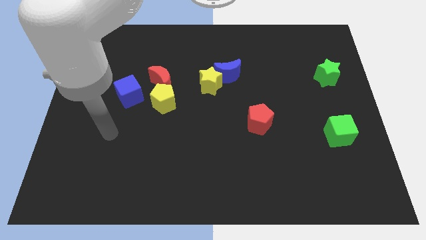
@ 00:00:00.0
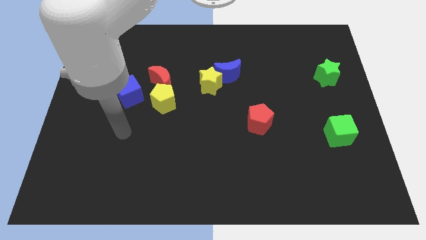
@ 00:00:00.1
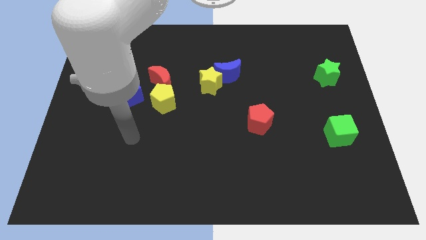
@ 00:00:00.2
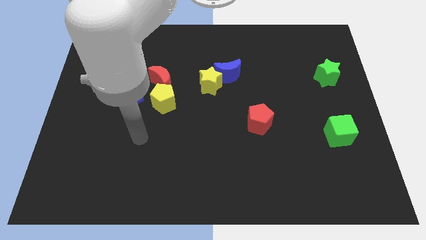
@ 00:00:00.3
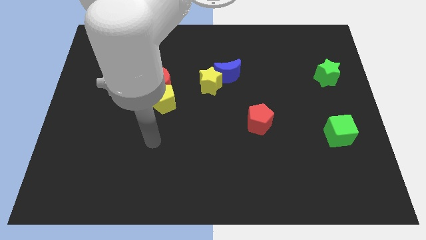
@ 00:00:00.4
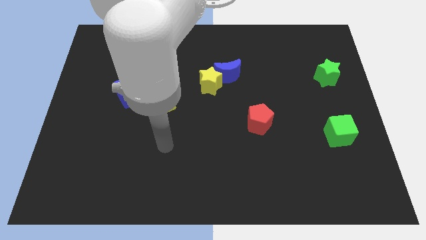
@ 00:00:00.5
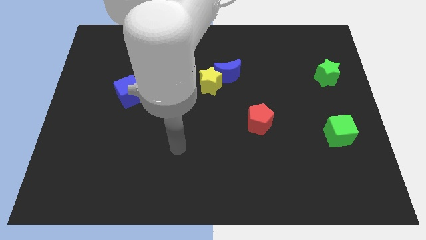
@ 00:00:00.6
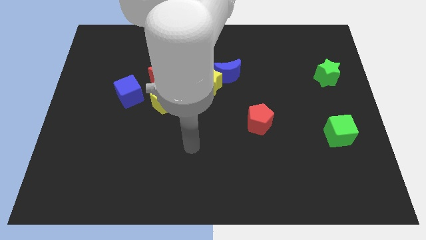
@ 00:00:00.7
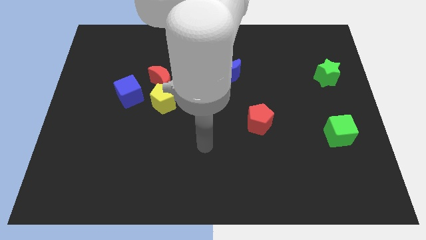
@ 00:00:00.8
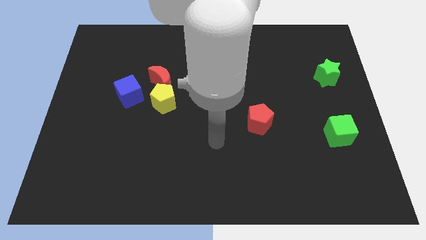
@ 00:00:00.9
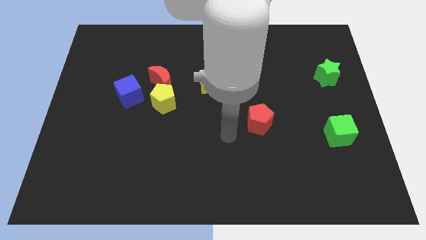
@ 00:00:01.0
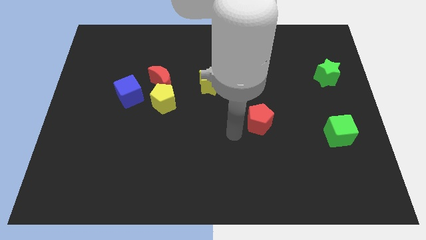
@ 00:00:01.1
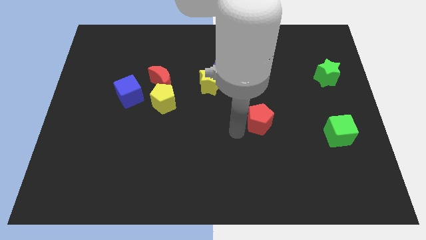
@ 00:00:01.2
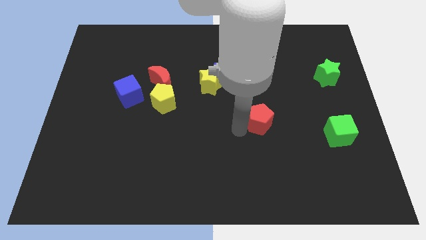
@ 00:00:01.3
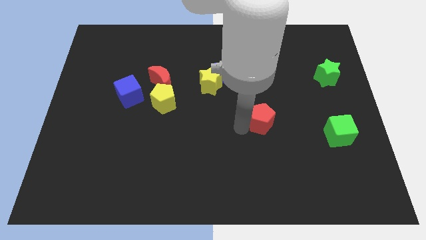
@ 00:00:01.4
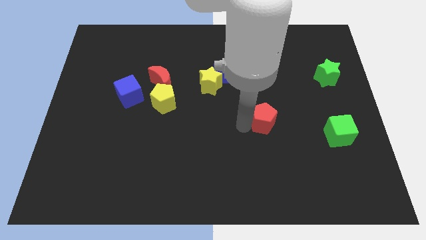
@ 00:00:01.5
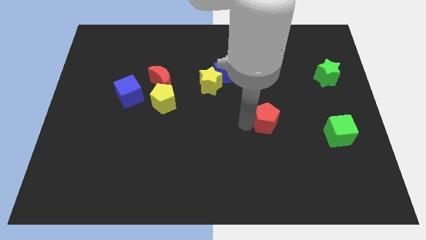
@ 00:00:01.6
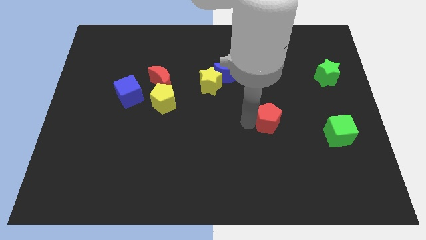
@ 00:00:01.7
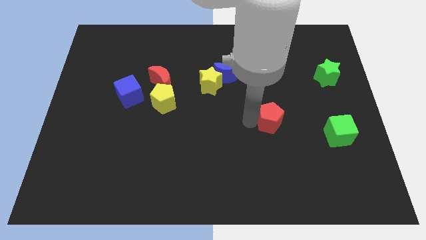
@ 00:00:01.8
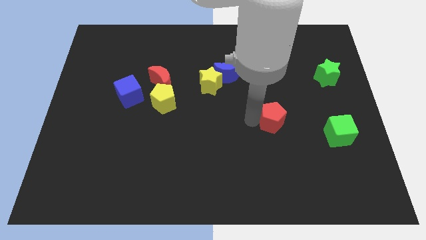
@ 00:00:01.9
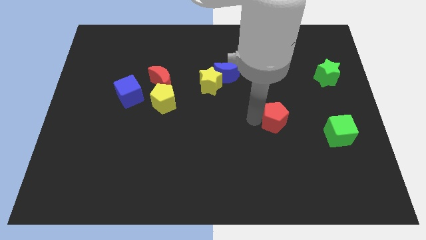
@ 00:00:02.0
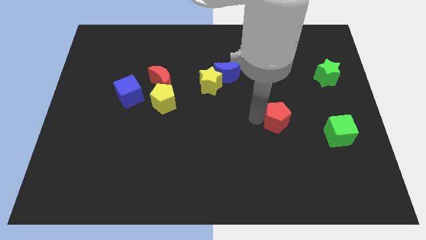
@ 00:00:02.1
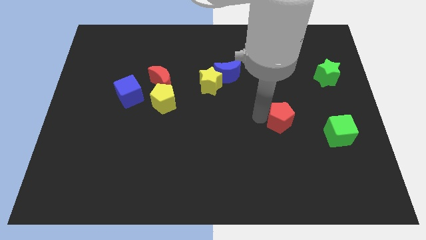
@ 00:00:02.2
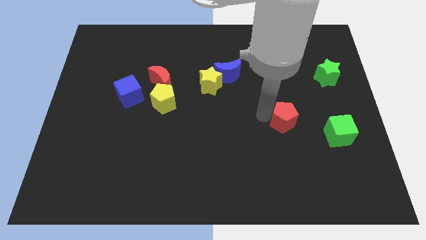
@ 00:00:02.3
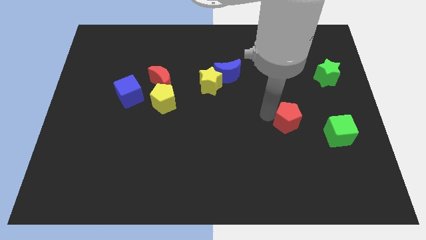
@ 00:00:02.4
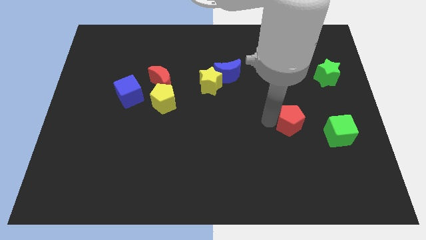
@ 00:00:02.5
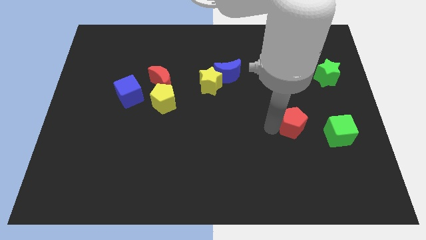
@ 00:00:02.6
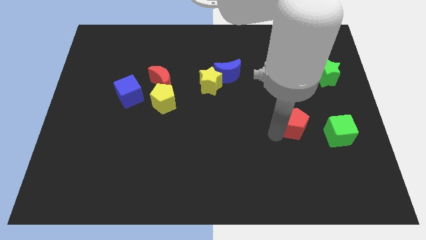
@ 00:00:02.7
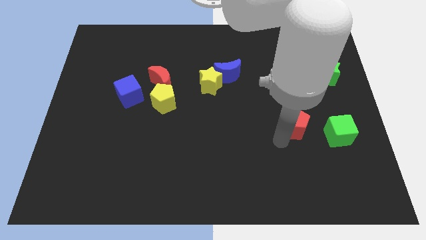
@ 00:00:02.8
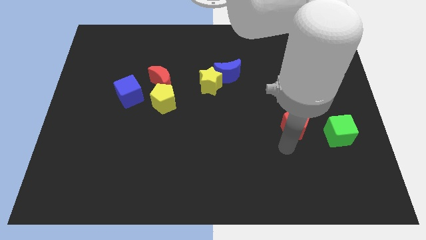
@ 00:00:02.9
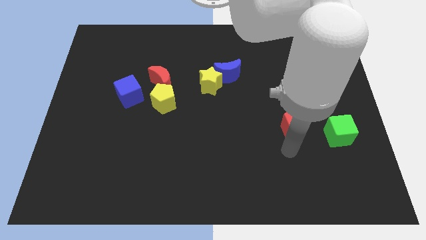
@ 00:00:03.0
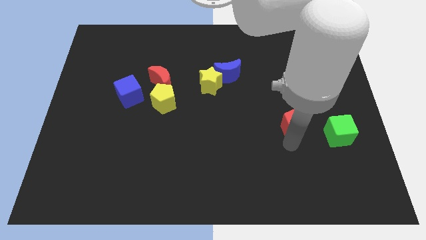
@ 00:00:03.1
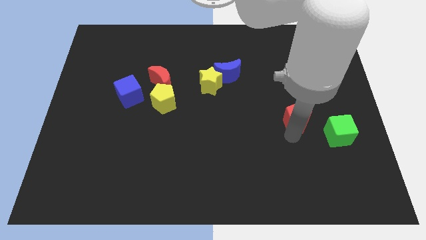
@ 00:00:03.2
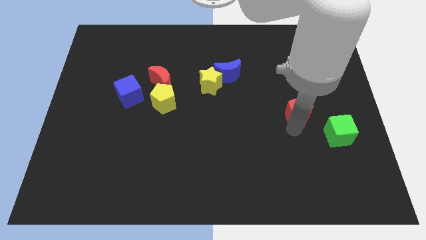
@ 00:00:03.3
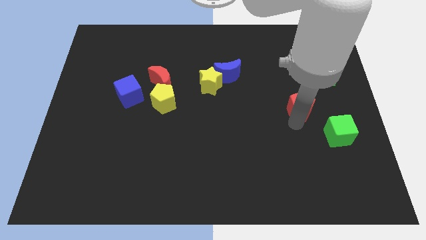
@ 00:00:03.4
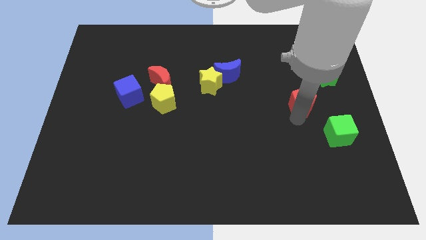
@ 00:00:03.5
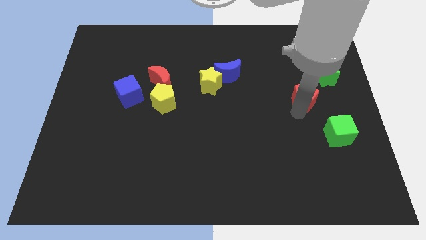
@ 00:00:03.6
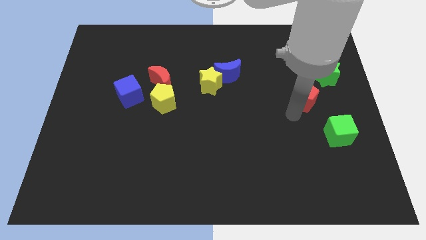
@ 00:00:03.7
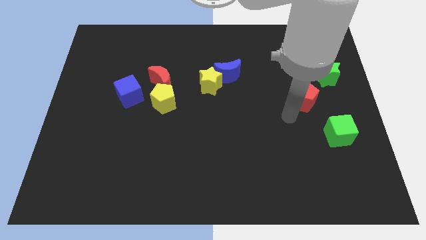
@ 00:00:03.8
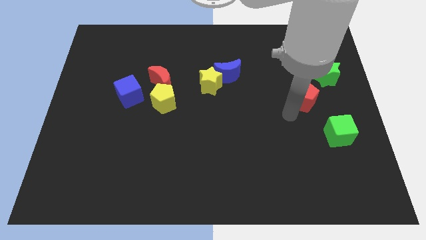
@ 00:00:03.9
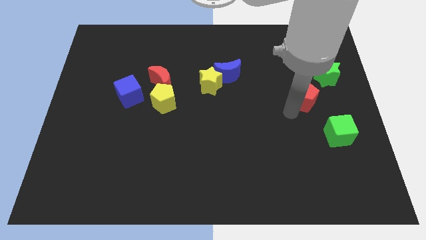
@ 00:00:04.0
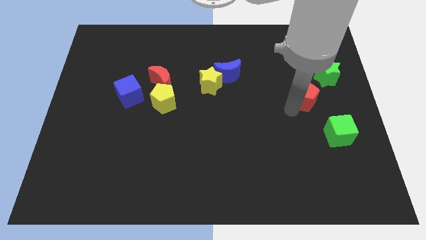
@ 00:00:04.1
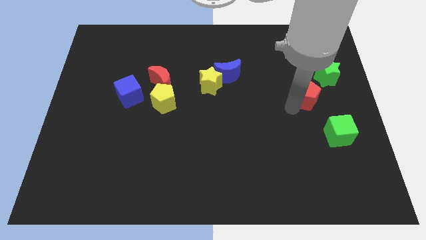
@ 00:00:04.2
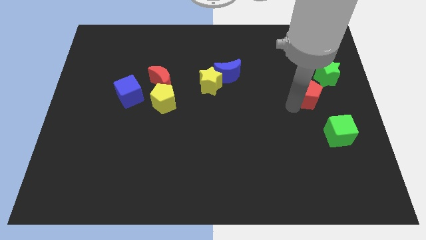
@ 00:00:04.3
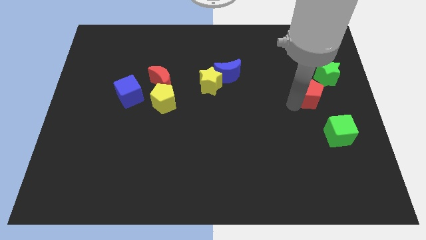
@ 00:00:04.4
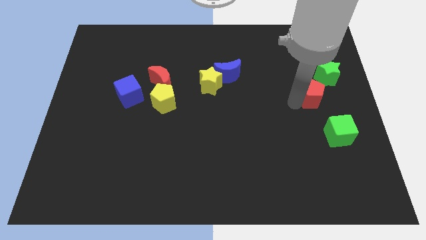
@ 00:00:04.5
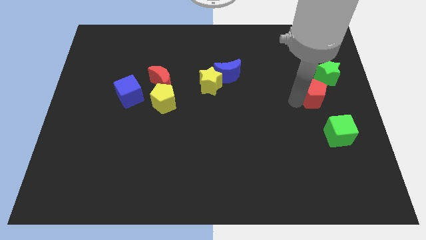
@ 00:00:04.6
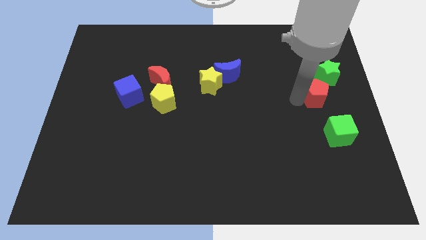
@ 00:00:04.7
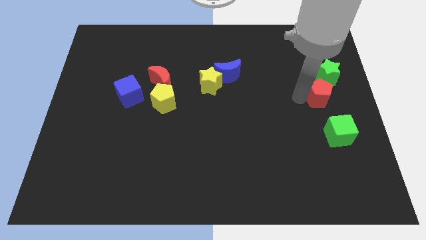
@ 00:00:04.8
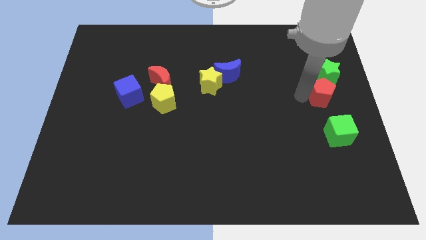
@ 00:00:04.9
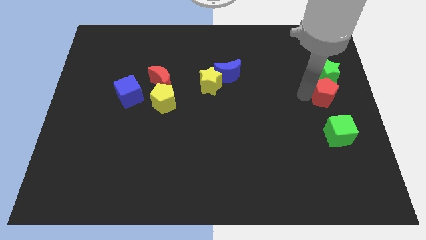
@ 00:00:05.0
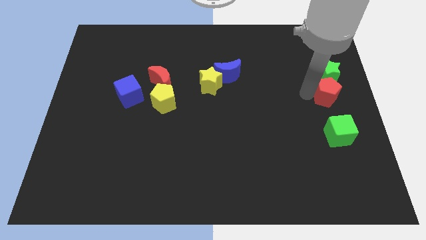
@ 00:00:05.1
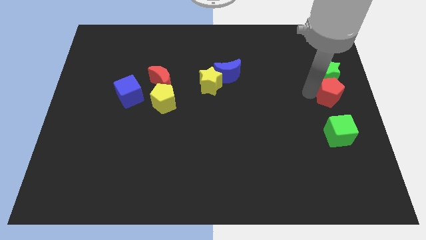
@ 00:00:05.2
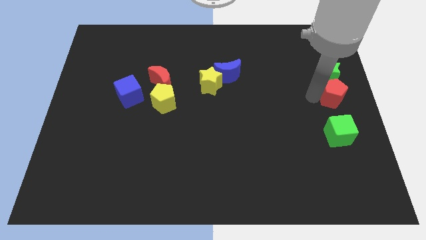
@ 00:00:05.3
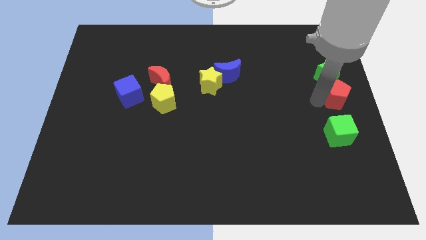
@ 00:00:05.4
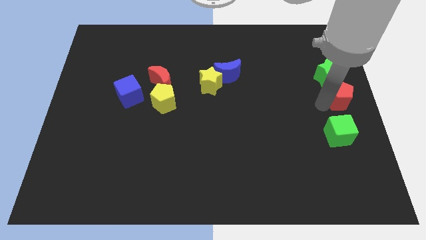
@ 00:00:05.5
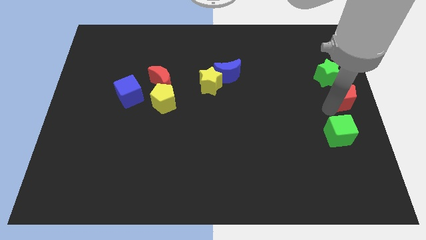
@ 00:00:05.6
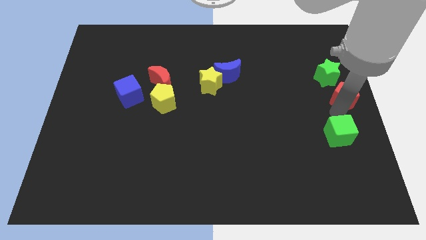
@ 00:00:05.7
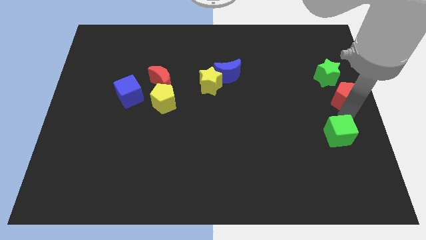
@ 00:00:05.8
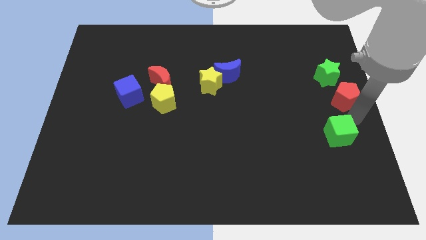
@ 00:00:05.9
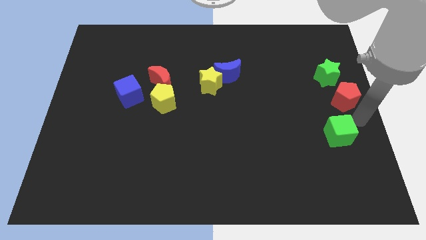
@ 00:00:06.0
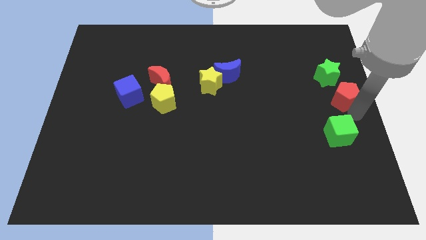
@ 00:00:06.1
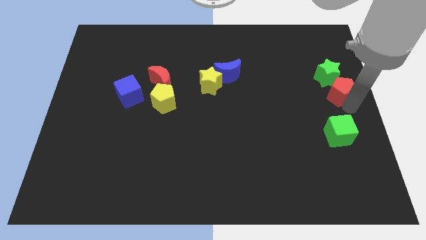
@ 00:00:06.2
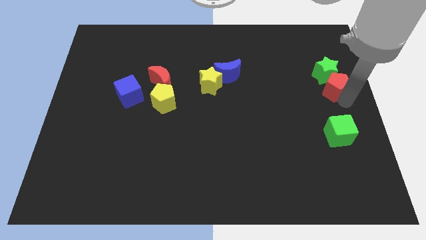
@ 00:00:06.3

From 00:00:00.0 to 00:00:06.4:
move the red pentagon towards the green star
